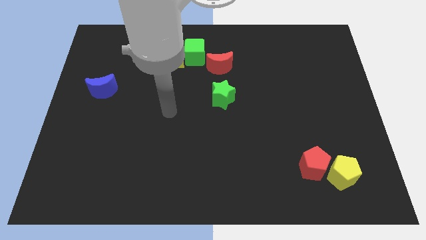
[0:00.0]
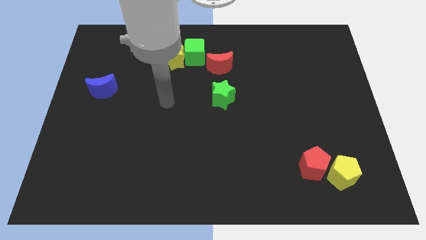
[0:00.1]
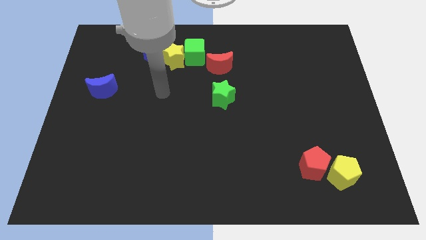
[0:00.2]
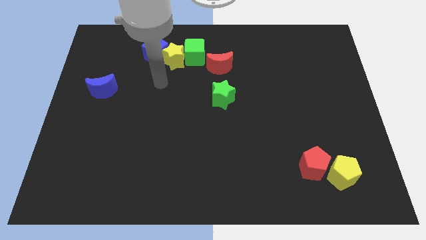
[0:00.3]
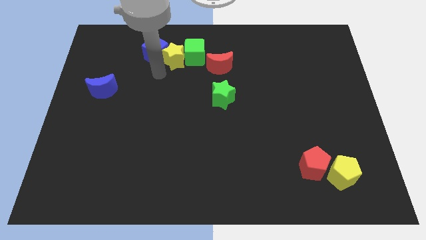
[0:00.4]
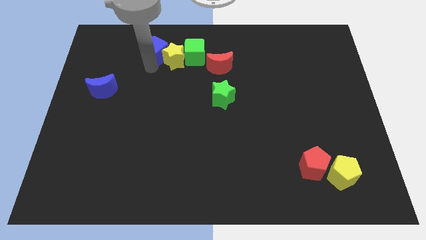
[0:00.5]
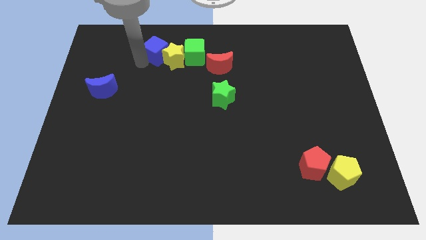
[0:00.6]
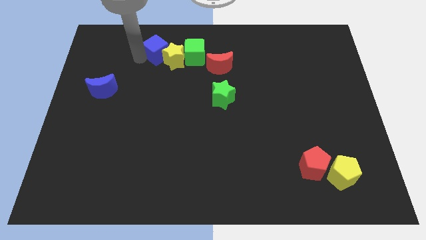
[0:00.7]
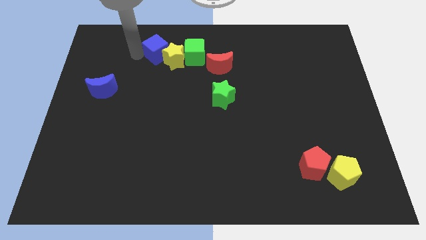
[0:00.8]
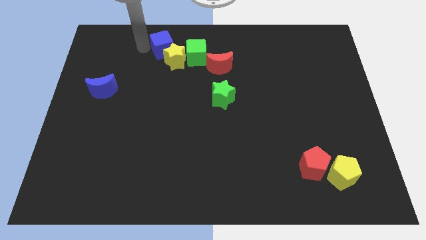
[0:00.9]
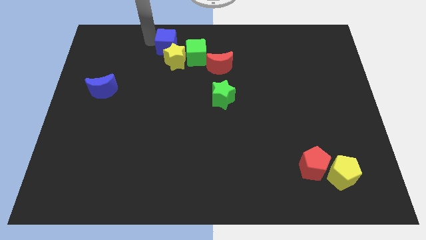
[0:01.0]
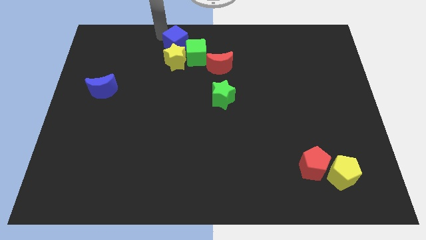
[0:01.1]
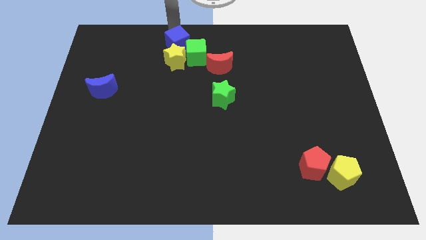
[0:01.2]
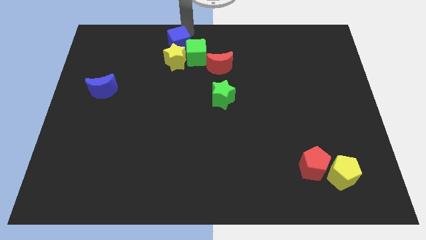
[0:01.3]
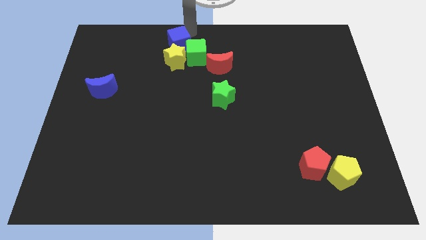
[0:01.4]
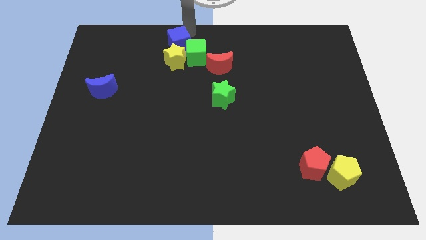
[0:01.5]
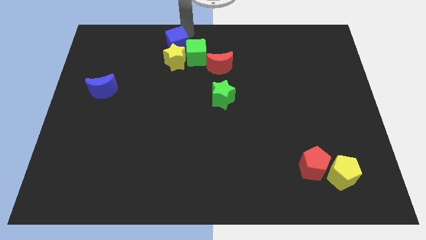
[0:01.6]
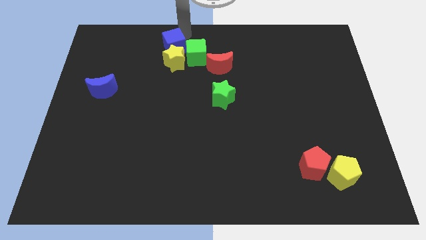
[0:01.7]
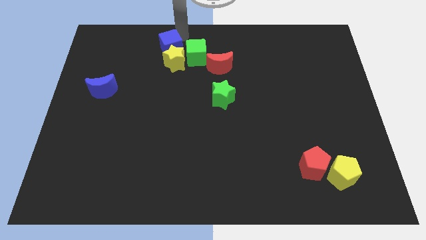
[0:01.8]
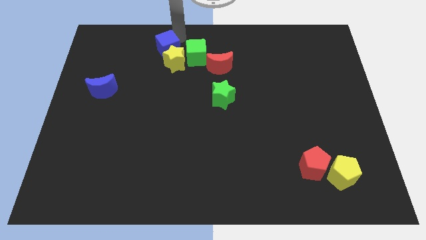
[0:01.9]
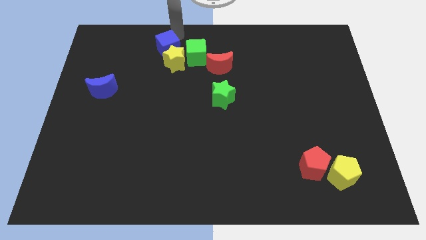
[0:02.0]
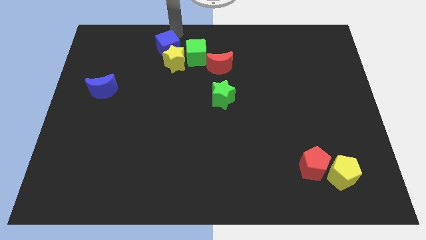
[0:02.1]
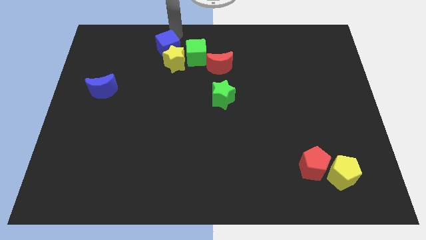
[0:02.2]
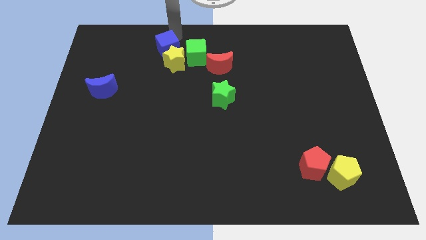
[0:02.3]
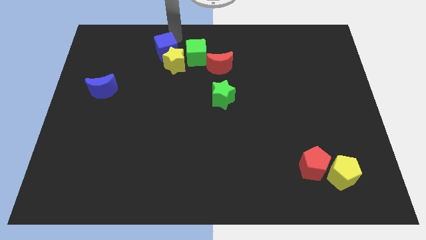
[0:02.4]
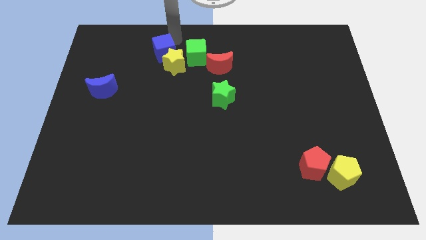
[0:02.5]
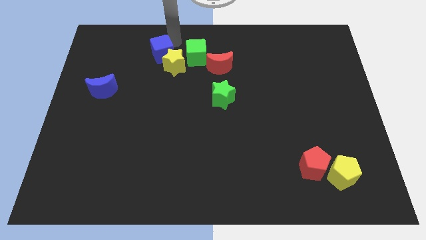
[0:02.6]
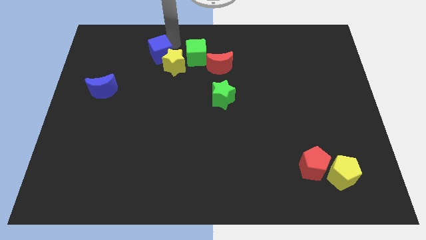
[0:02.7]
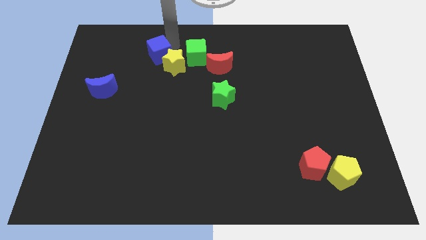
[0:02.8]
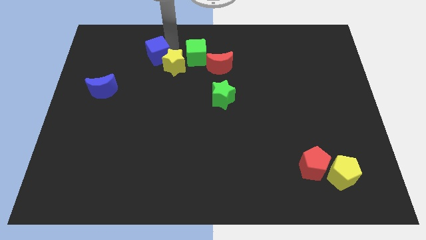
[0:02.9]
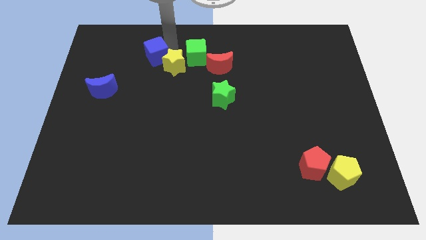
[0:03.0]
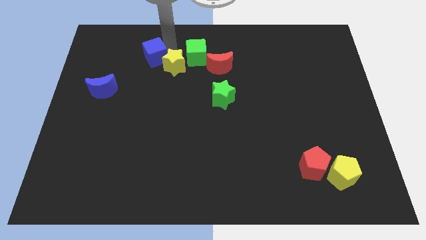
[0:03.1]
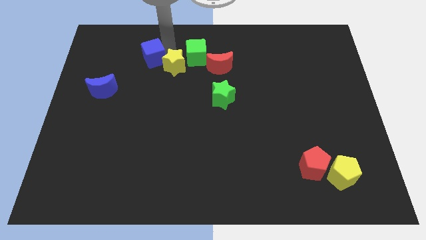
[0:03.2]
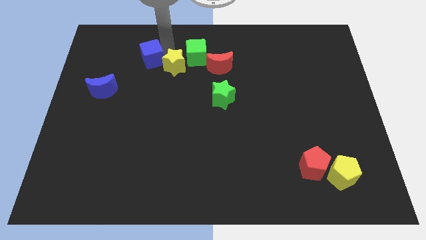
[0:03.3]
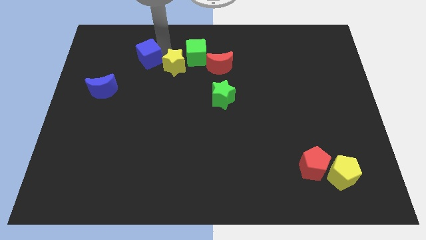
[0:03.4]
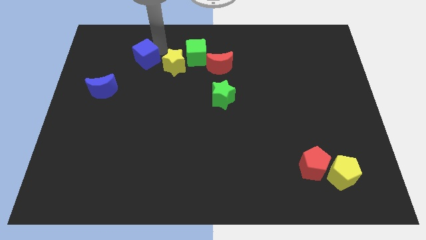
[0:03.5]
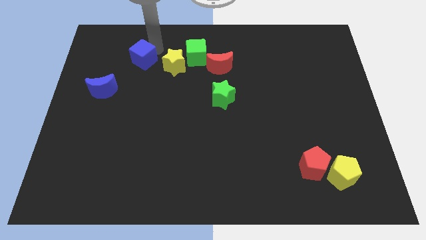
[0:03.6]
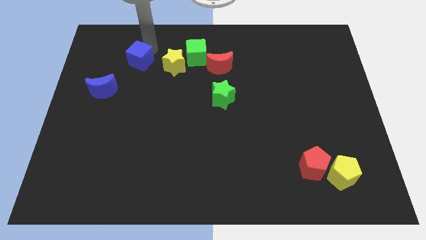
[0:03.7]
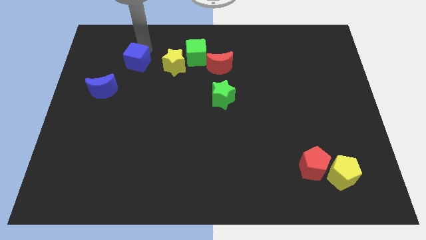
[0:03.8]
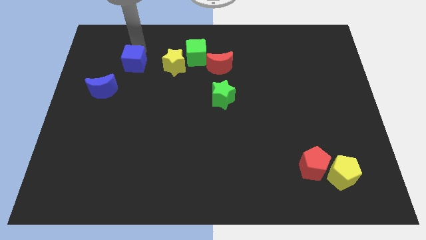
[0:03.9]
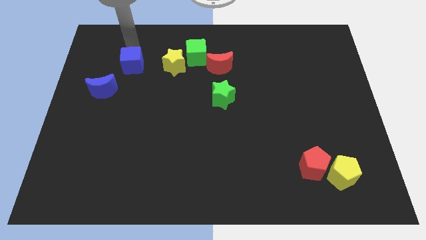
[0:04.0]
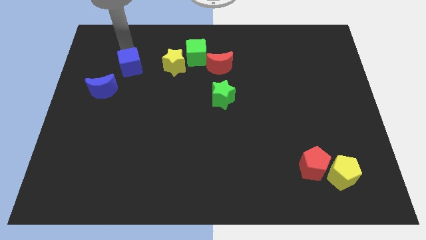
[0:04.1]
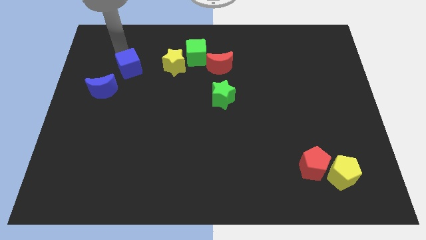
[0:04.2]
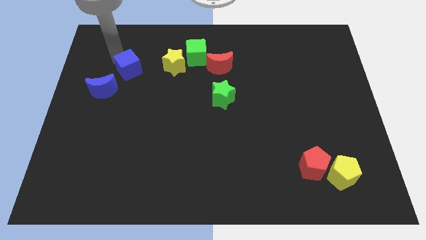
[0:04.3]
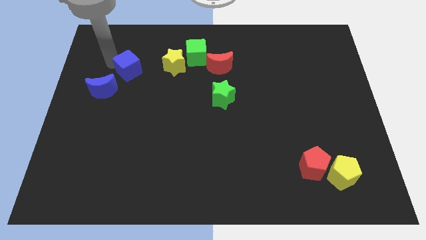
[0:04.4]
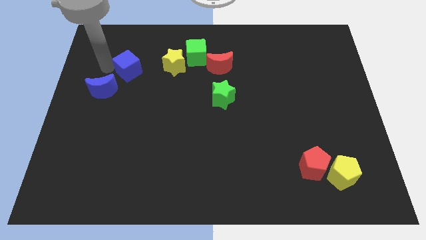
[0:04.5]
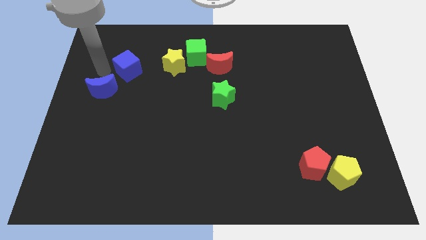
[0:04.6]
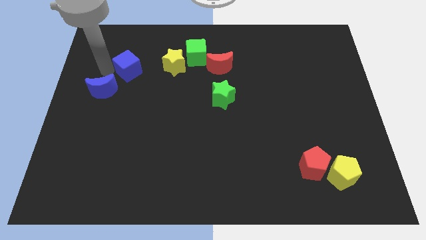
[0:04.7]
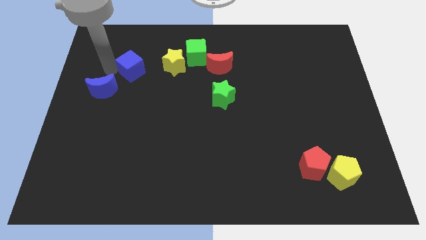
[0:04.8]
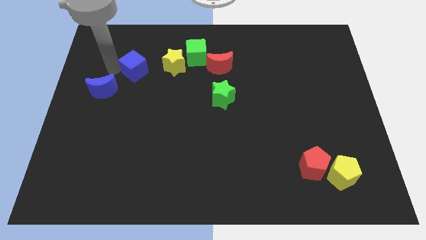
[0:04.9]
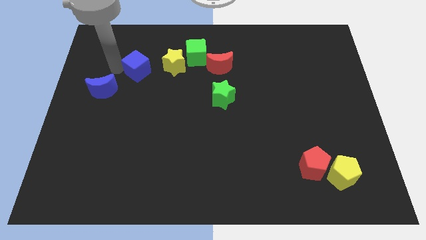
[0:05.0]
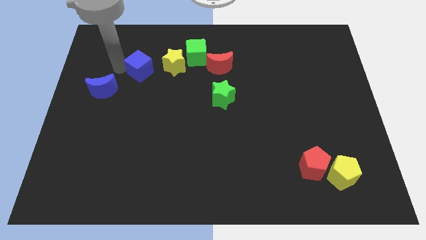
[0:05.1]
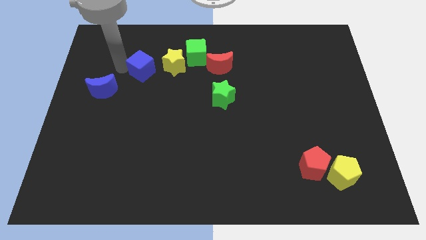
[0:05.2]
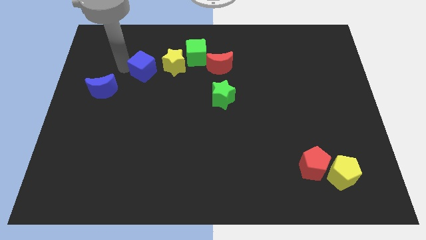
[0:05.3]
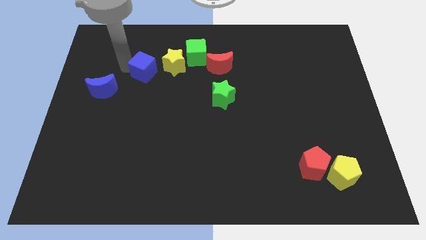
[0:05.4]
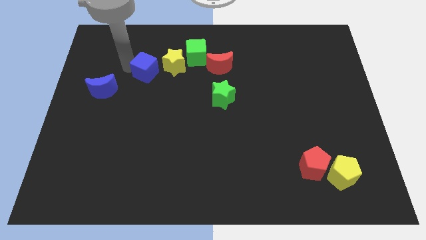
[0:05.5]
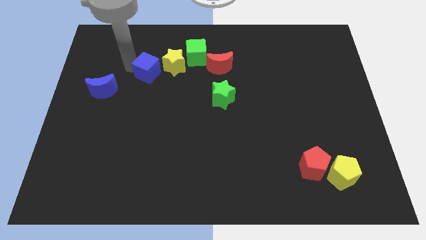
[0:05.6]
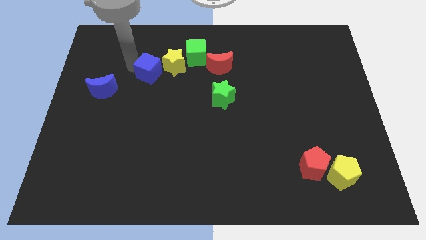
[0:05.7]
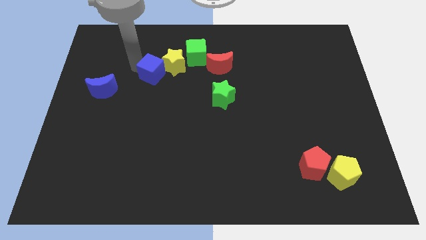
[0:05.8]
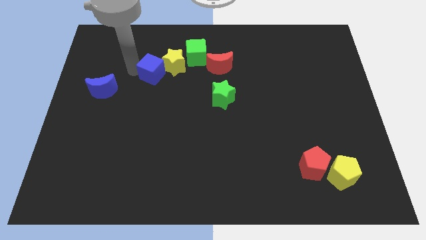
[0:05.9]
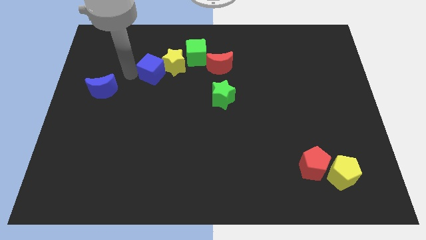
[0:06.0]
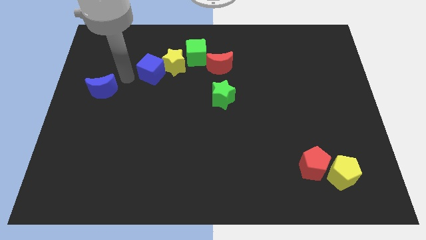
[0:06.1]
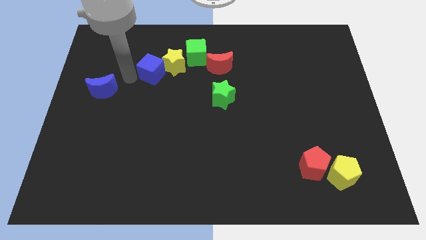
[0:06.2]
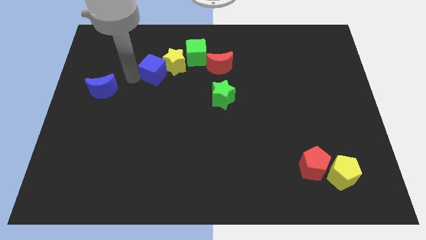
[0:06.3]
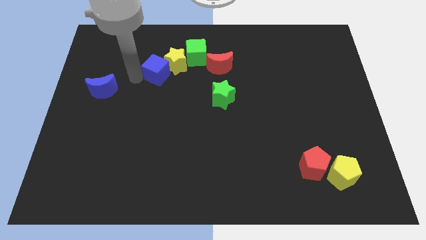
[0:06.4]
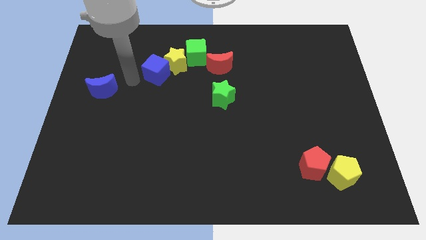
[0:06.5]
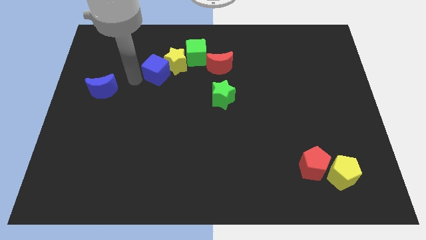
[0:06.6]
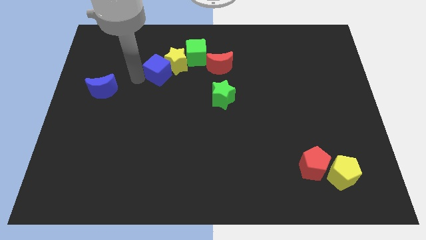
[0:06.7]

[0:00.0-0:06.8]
put the blue cube to the left of the red moon
